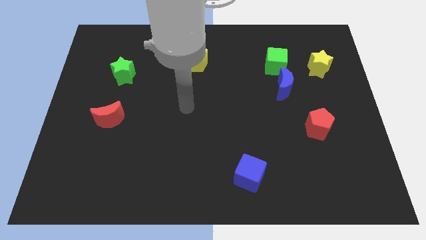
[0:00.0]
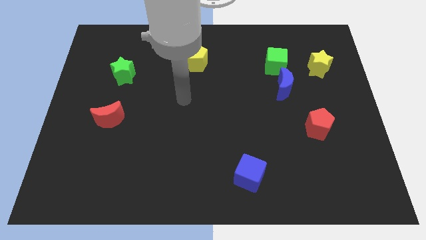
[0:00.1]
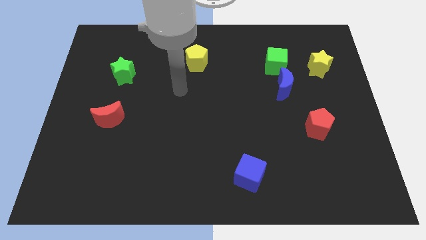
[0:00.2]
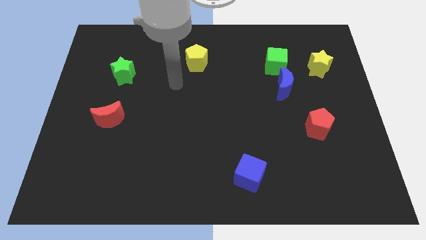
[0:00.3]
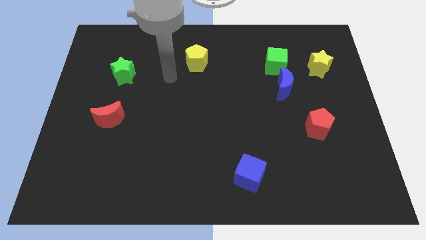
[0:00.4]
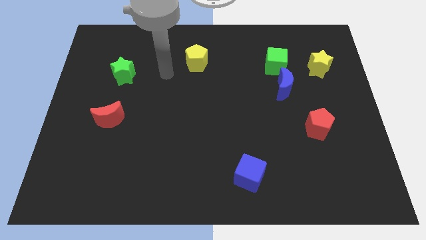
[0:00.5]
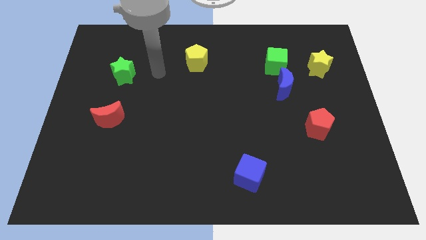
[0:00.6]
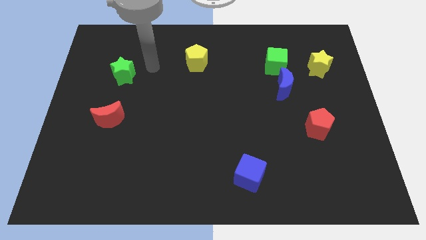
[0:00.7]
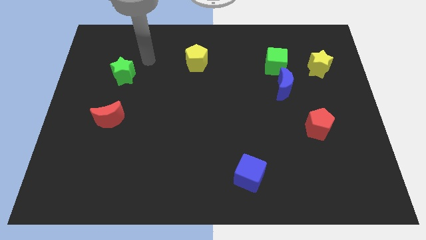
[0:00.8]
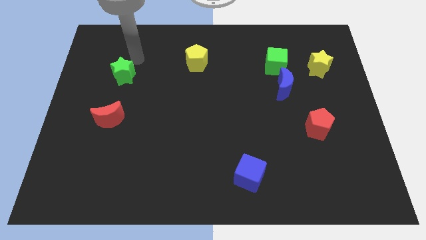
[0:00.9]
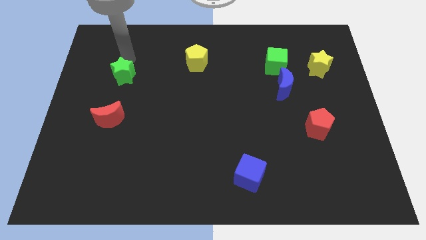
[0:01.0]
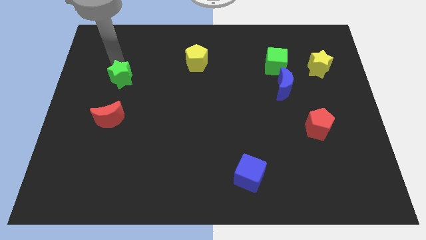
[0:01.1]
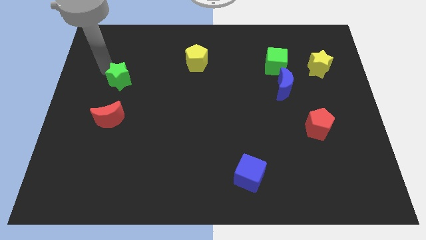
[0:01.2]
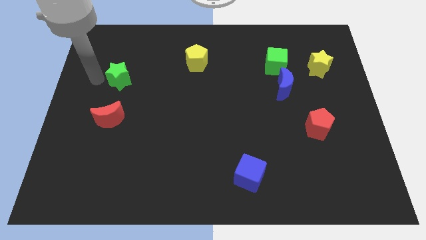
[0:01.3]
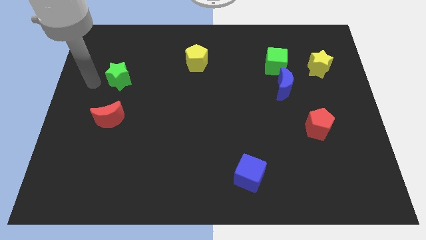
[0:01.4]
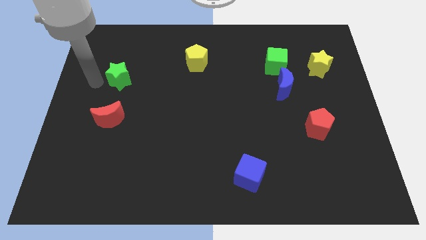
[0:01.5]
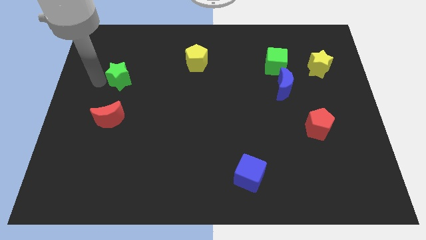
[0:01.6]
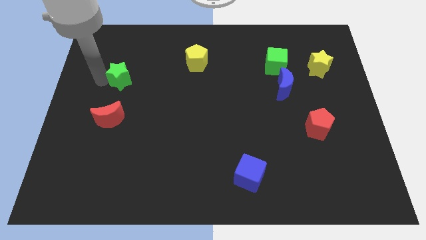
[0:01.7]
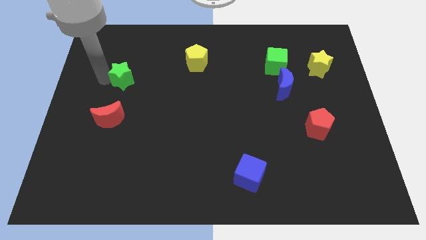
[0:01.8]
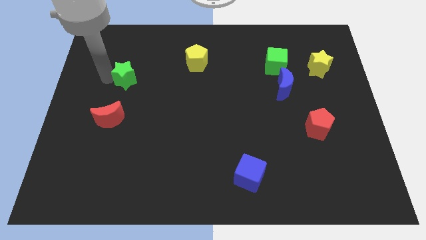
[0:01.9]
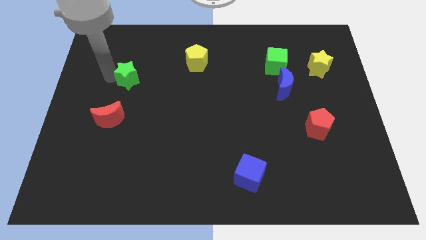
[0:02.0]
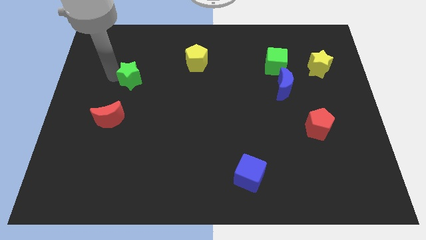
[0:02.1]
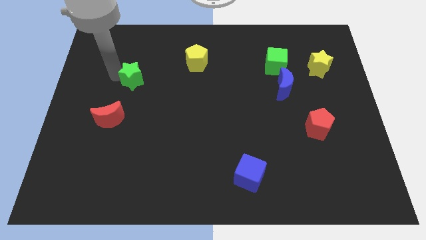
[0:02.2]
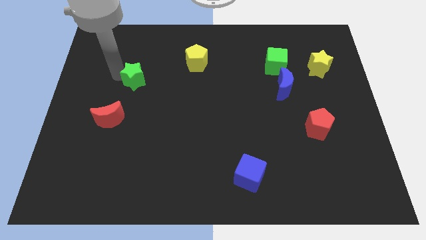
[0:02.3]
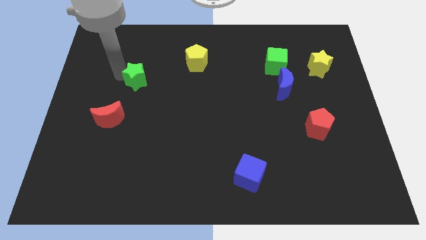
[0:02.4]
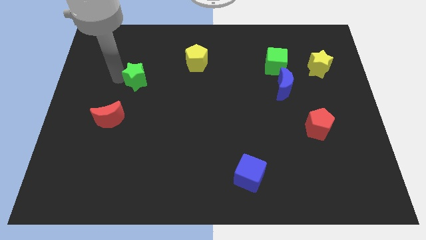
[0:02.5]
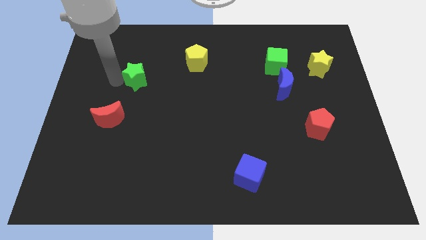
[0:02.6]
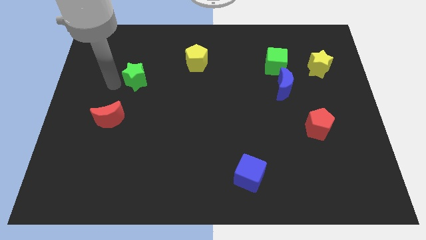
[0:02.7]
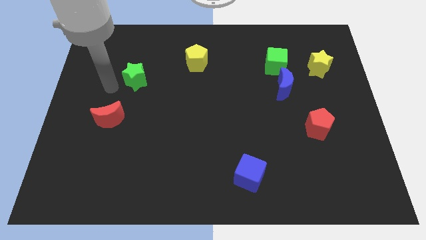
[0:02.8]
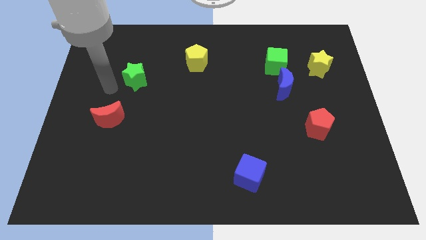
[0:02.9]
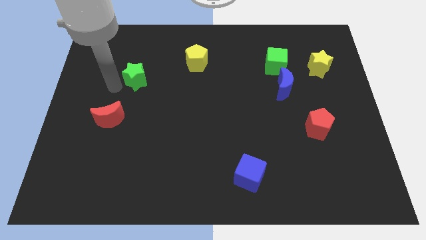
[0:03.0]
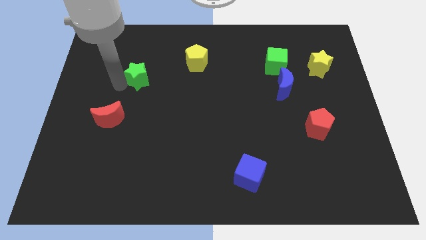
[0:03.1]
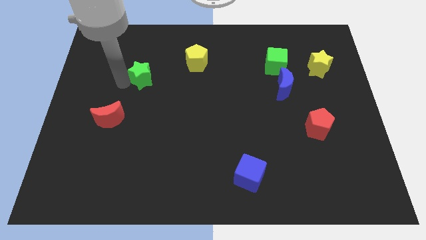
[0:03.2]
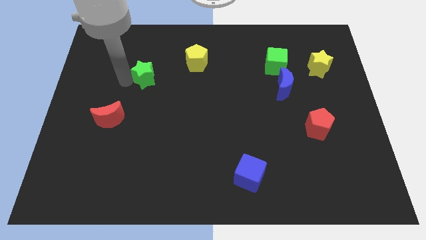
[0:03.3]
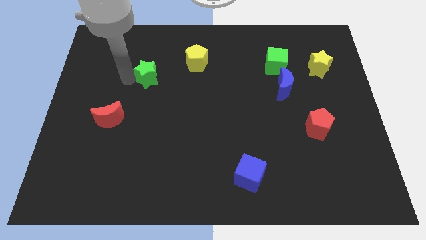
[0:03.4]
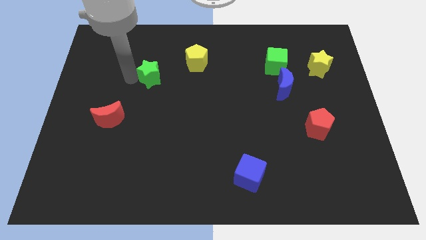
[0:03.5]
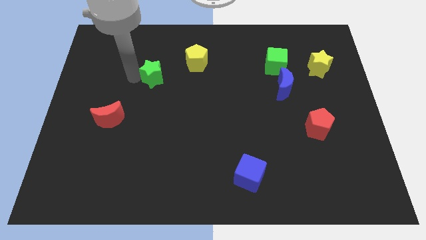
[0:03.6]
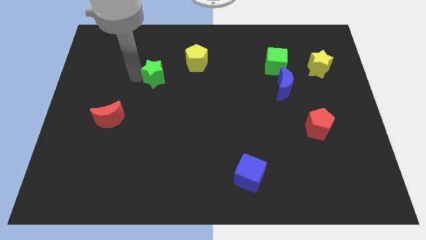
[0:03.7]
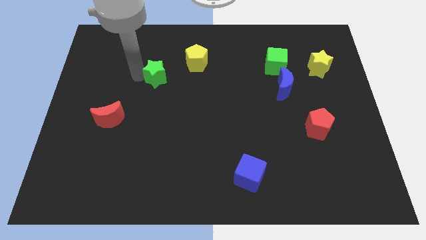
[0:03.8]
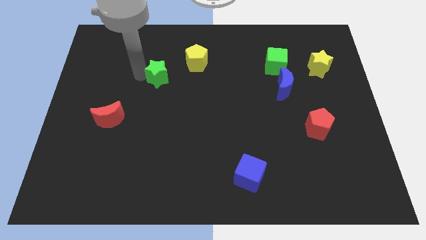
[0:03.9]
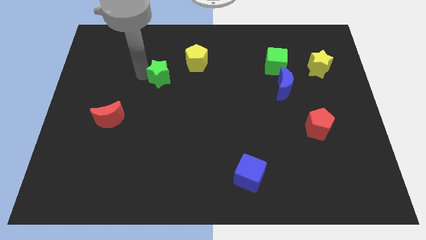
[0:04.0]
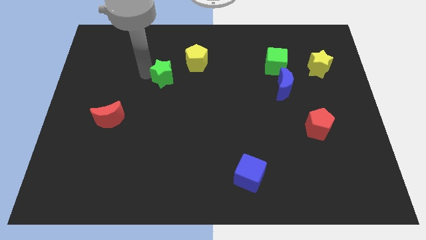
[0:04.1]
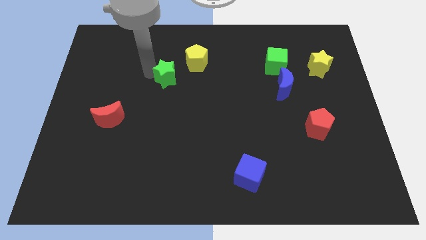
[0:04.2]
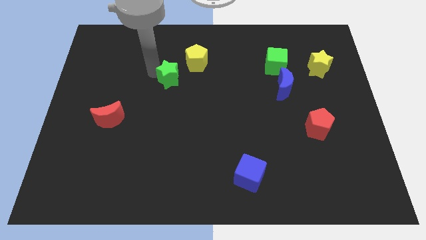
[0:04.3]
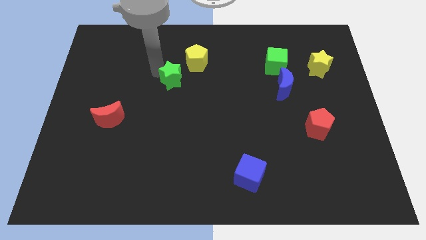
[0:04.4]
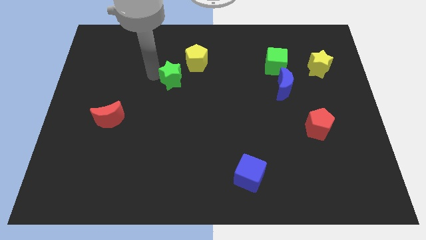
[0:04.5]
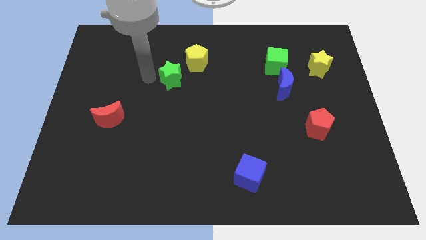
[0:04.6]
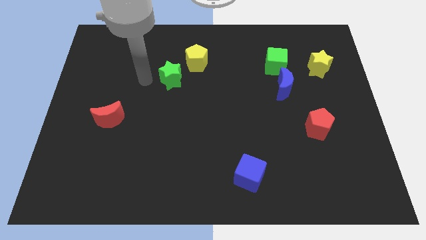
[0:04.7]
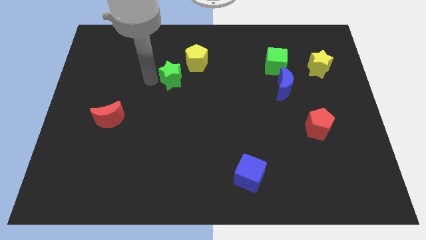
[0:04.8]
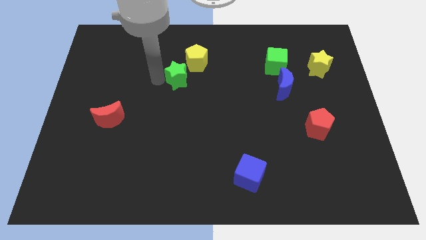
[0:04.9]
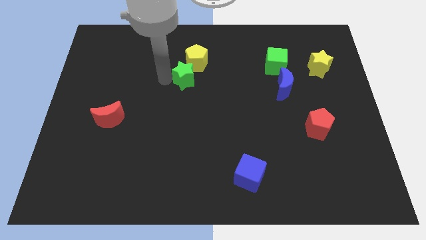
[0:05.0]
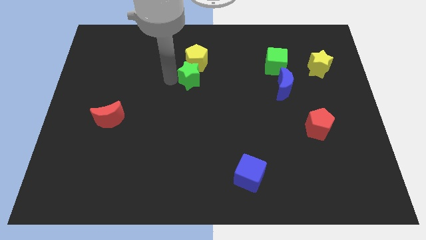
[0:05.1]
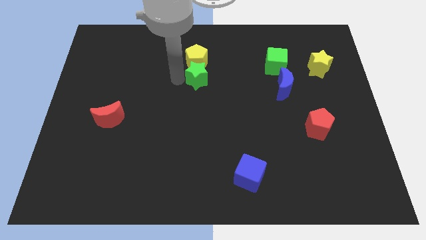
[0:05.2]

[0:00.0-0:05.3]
put the green star diagonally down and to the right of the yellow pentagon

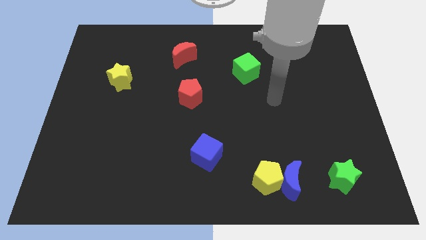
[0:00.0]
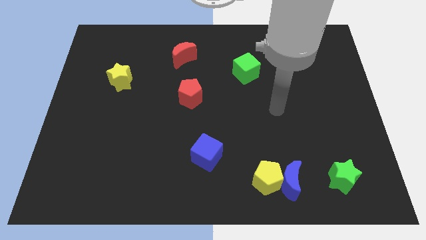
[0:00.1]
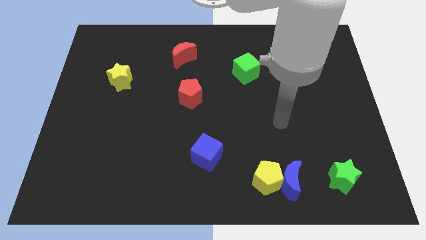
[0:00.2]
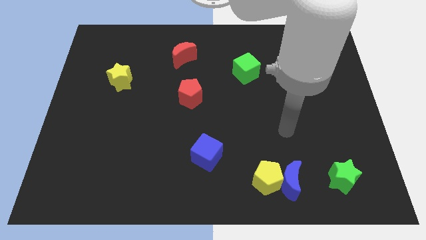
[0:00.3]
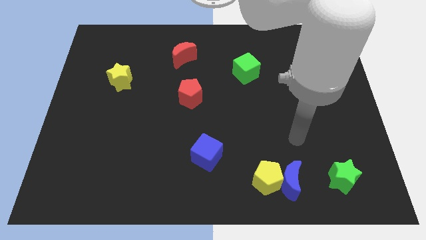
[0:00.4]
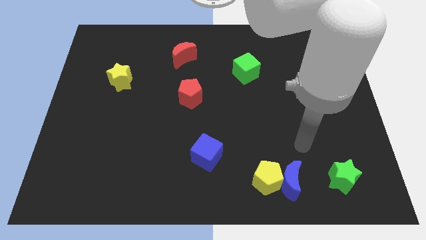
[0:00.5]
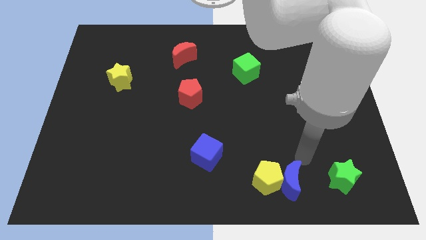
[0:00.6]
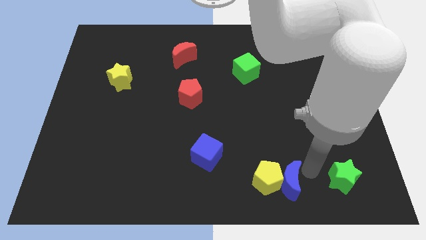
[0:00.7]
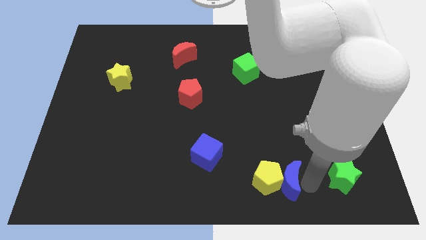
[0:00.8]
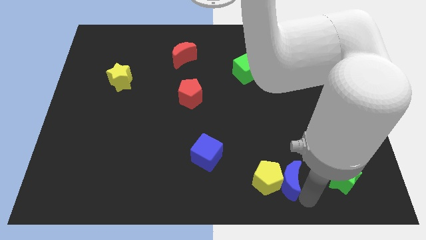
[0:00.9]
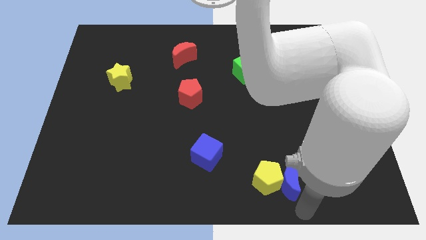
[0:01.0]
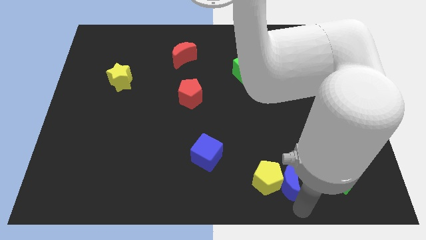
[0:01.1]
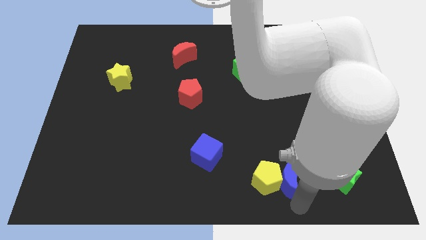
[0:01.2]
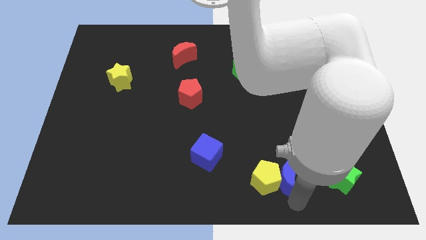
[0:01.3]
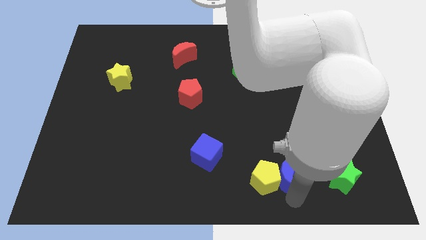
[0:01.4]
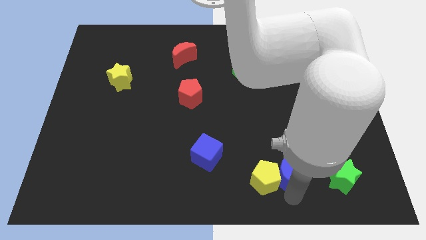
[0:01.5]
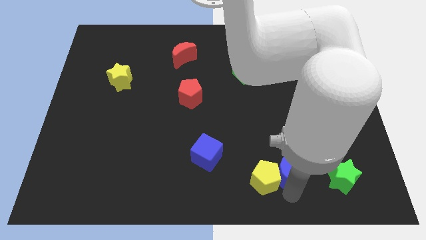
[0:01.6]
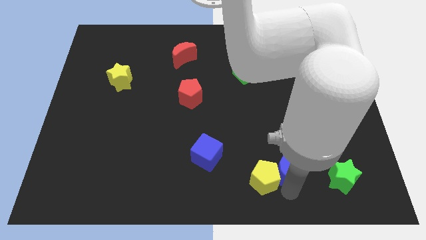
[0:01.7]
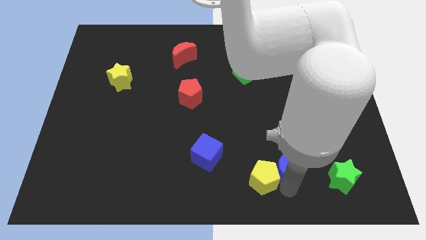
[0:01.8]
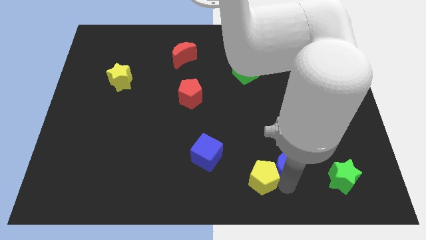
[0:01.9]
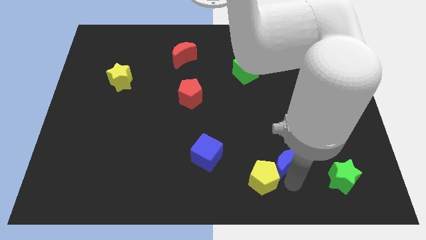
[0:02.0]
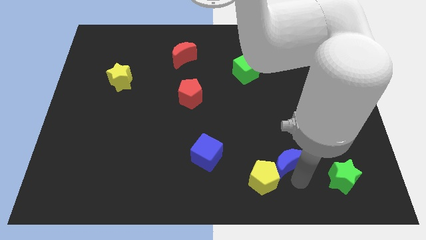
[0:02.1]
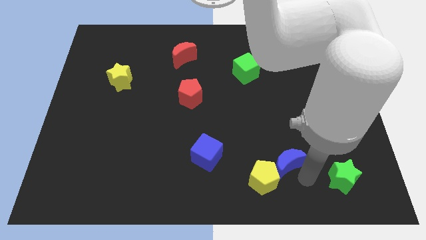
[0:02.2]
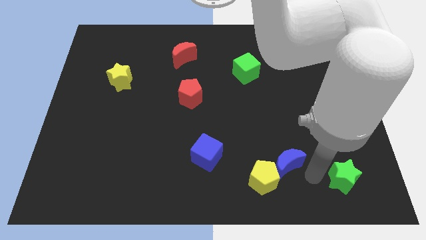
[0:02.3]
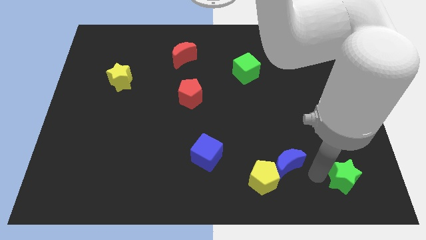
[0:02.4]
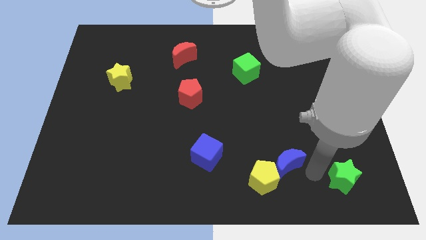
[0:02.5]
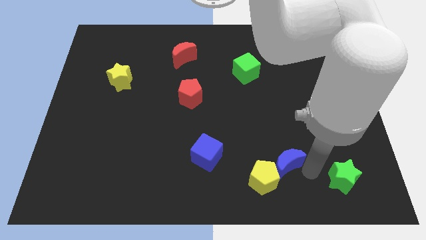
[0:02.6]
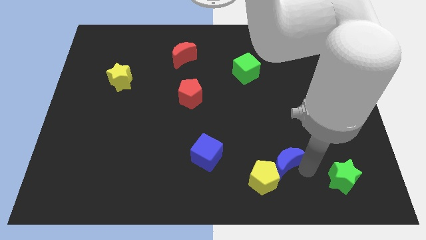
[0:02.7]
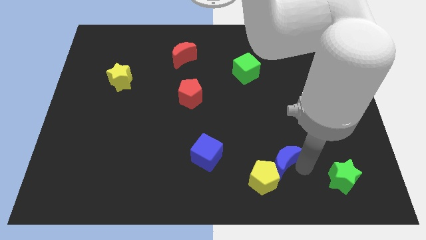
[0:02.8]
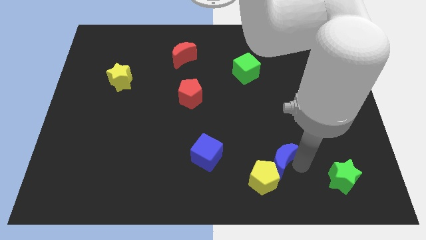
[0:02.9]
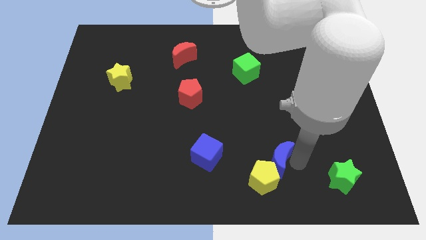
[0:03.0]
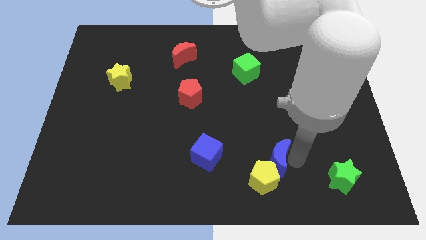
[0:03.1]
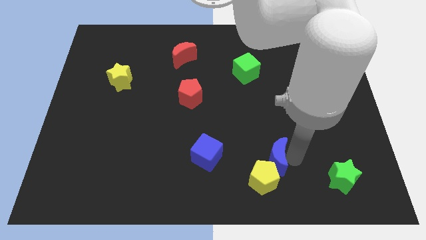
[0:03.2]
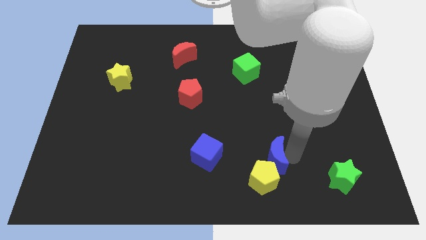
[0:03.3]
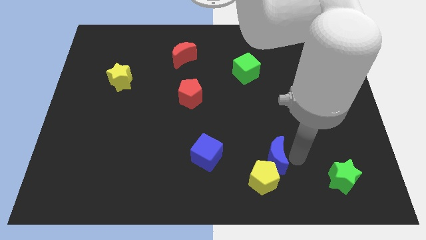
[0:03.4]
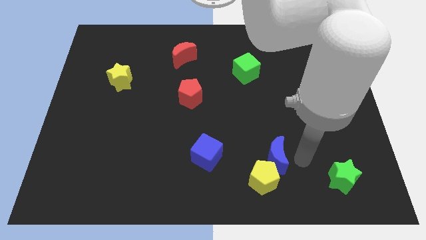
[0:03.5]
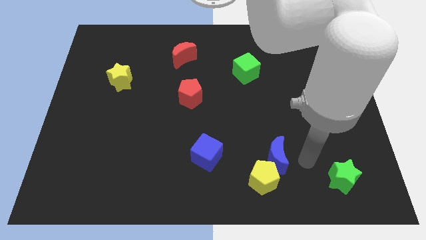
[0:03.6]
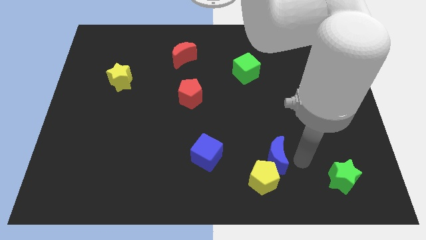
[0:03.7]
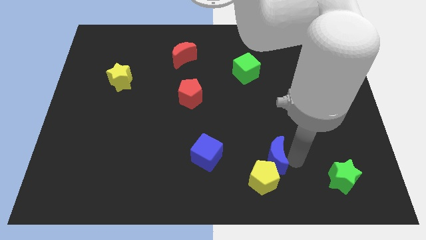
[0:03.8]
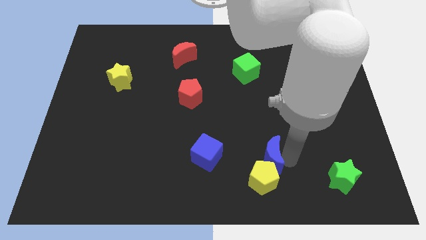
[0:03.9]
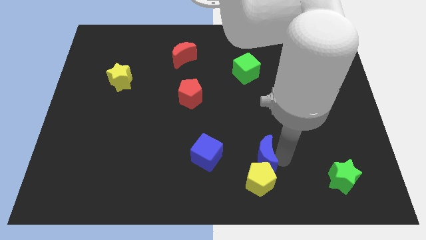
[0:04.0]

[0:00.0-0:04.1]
slide the blue moon to the top left of the yellow pentagon
